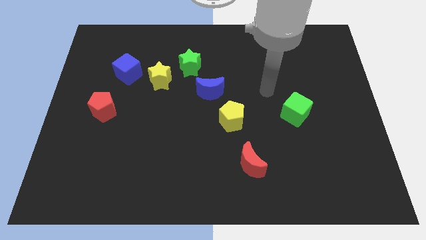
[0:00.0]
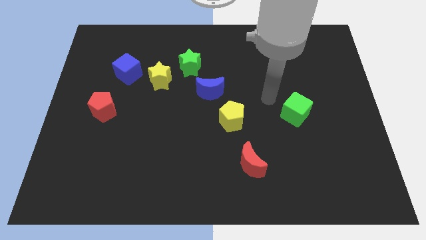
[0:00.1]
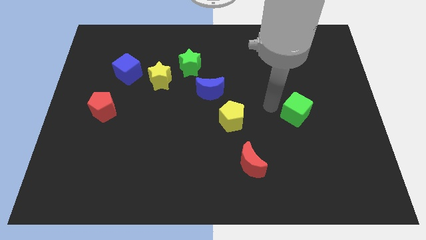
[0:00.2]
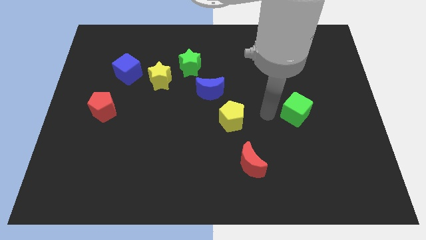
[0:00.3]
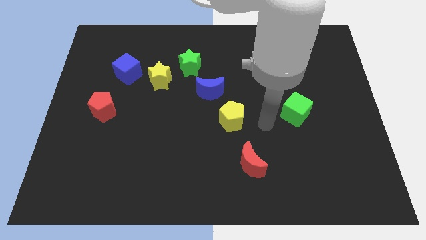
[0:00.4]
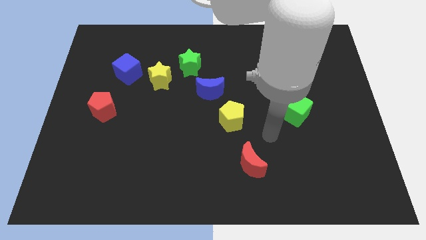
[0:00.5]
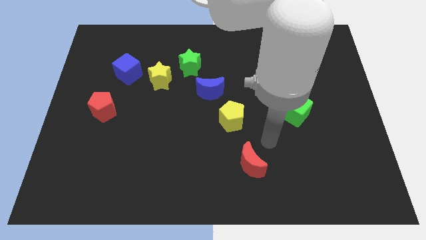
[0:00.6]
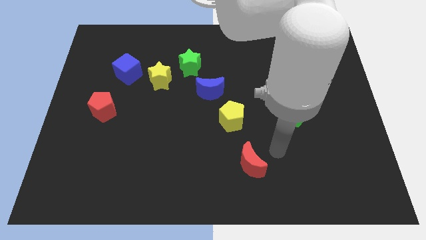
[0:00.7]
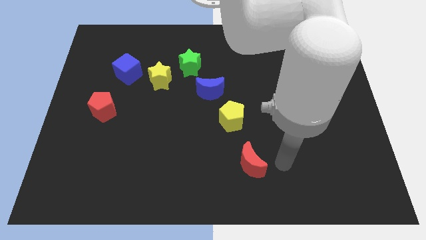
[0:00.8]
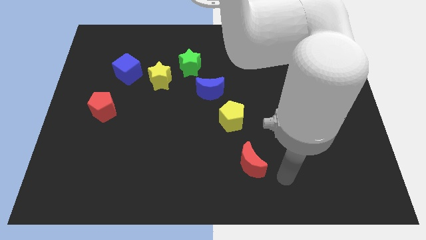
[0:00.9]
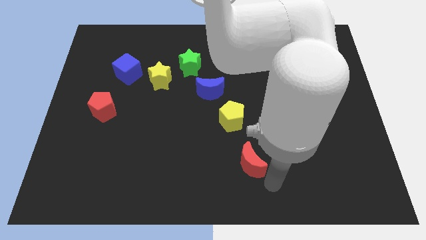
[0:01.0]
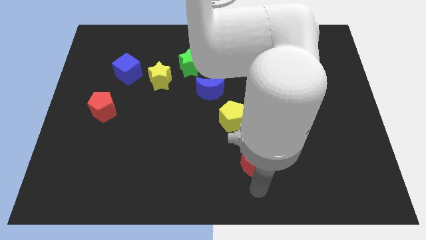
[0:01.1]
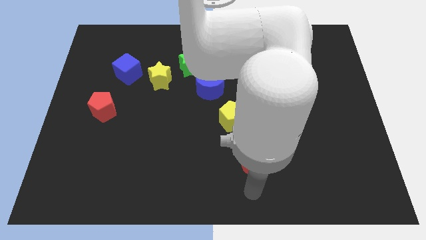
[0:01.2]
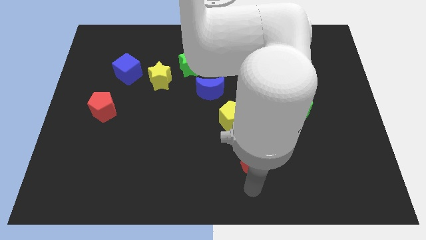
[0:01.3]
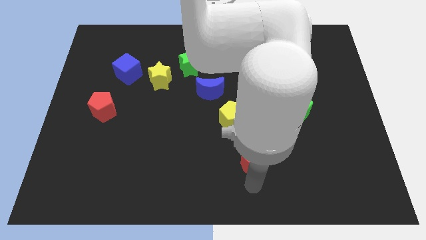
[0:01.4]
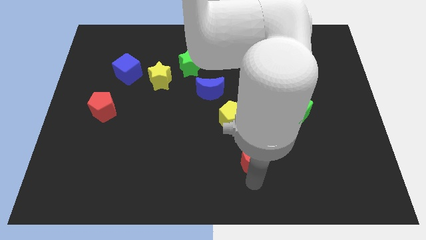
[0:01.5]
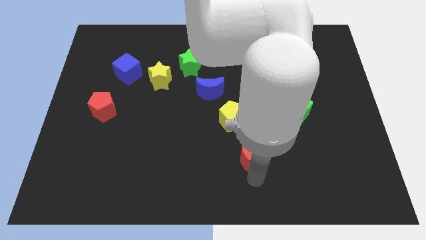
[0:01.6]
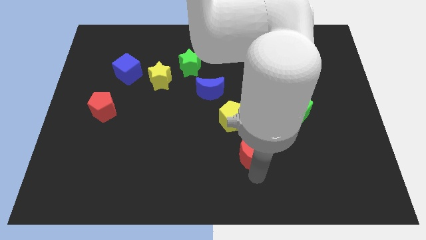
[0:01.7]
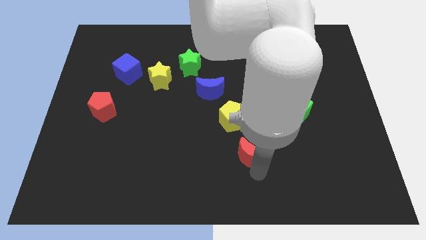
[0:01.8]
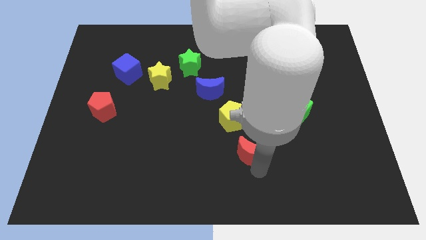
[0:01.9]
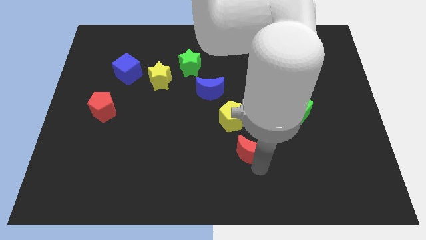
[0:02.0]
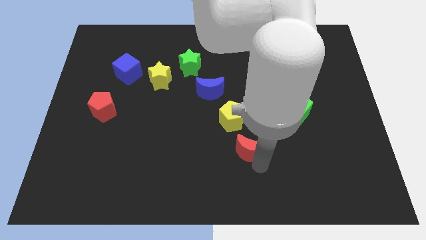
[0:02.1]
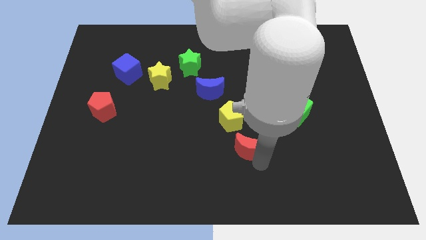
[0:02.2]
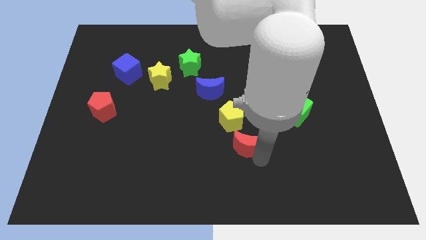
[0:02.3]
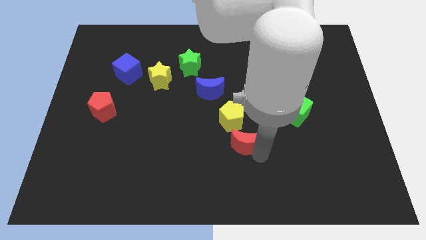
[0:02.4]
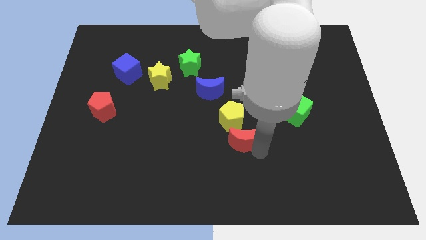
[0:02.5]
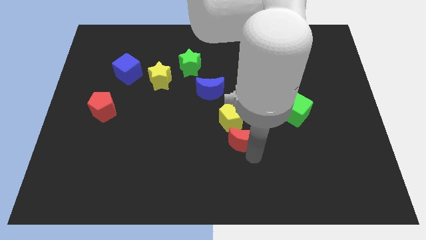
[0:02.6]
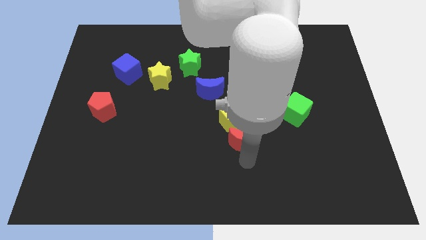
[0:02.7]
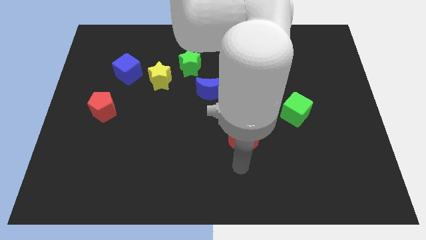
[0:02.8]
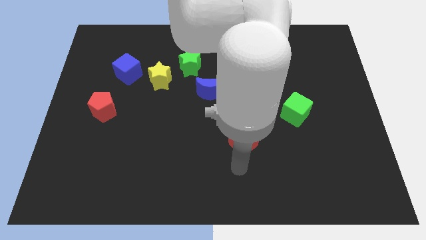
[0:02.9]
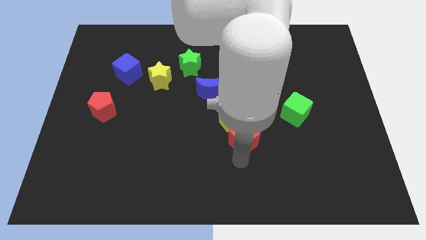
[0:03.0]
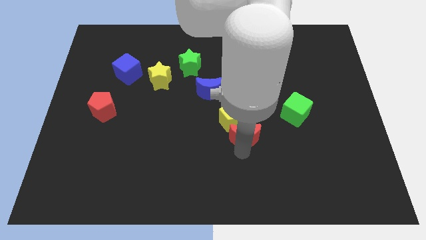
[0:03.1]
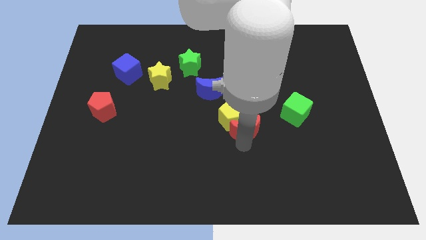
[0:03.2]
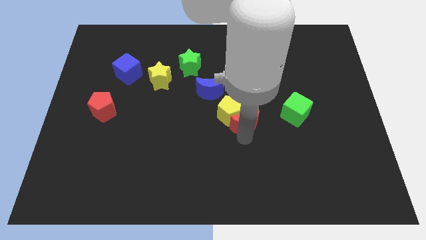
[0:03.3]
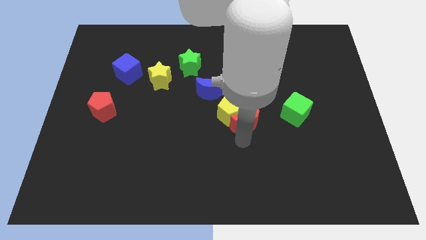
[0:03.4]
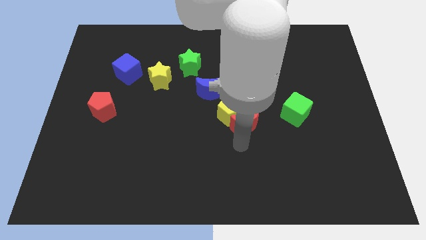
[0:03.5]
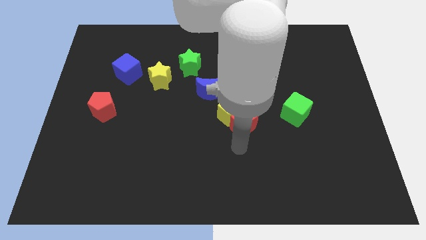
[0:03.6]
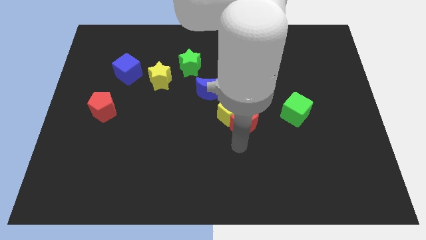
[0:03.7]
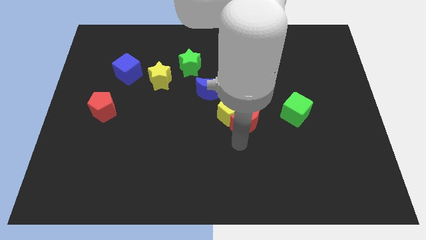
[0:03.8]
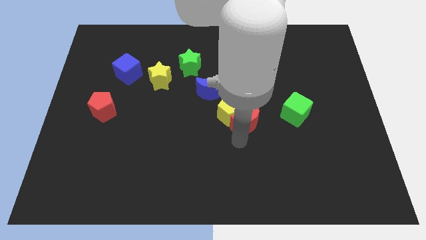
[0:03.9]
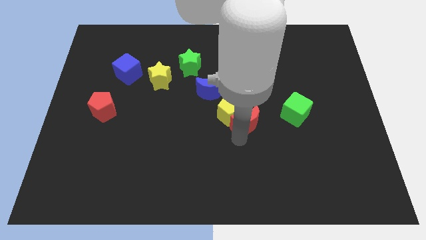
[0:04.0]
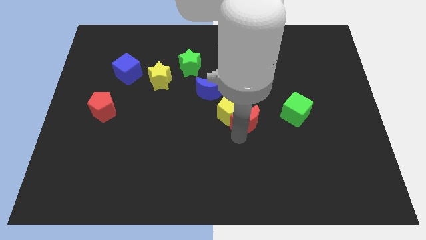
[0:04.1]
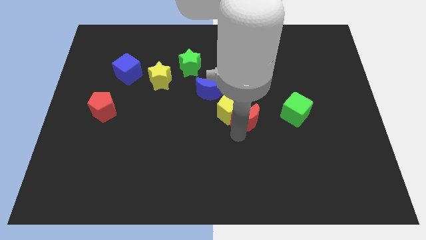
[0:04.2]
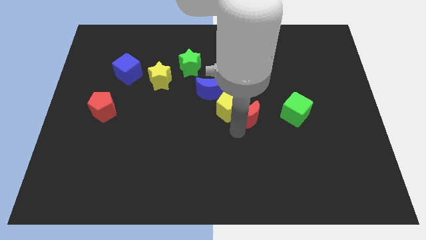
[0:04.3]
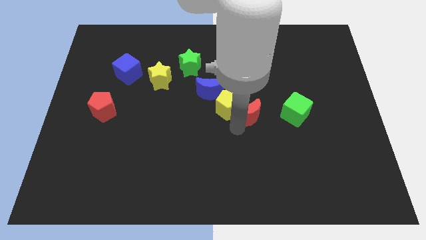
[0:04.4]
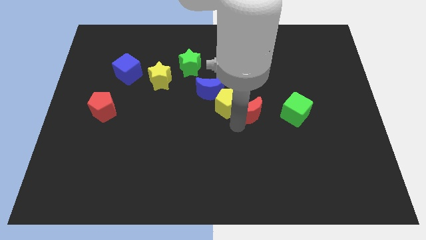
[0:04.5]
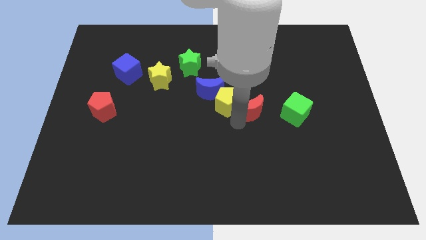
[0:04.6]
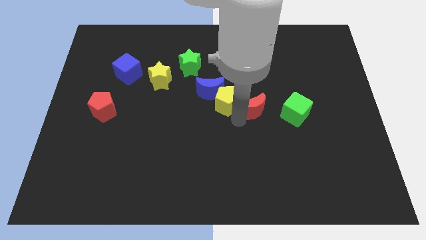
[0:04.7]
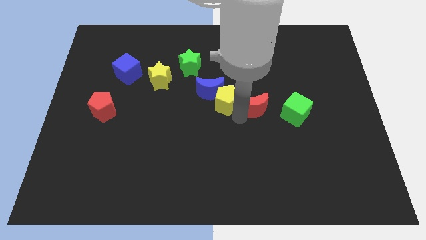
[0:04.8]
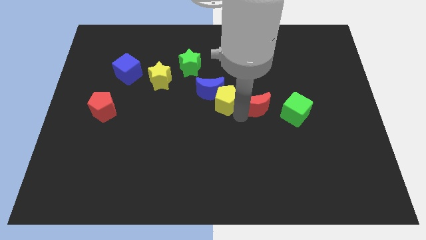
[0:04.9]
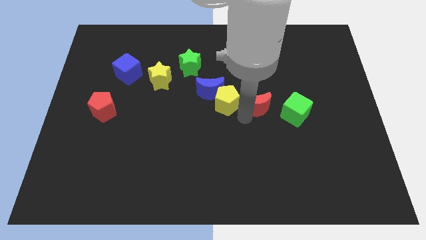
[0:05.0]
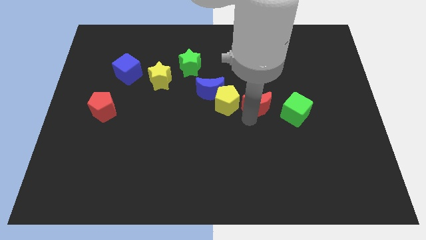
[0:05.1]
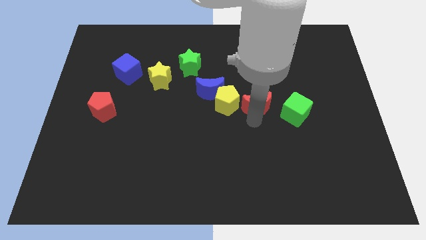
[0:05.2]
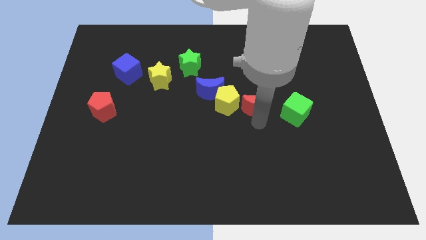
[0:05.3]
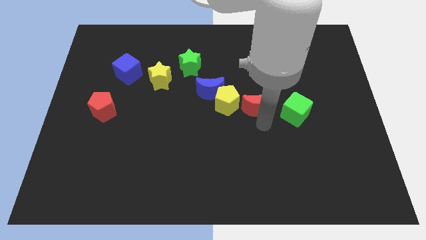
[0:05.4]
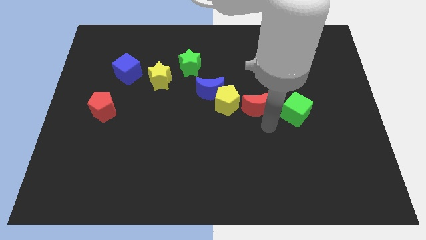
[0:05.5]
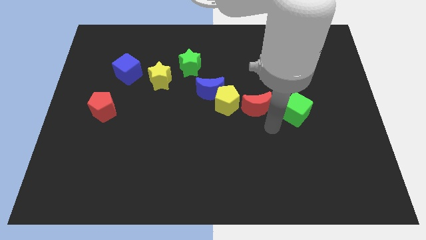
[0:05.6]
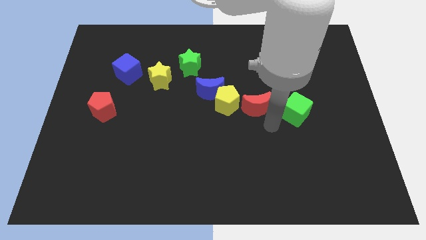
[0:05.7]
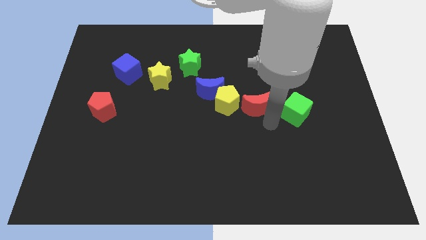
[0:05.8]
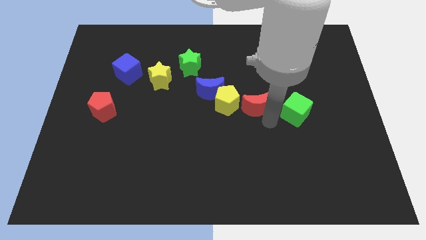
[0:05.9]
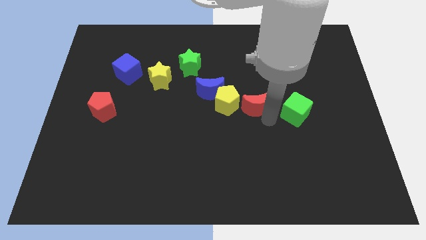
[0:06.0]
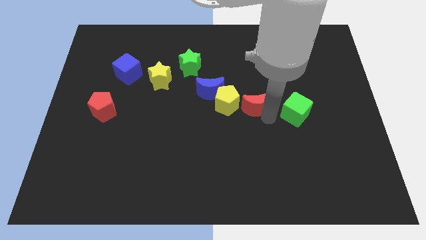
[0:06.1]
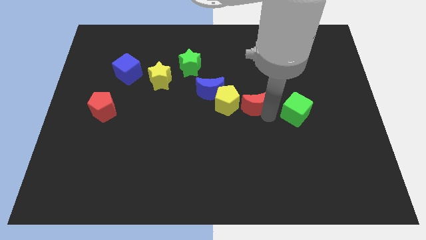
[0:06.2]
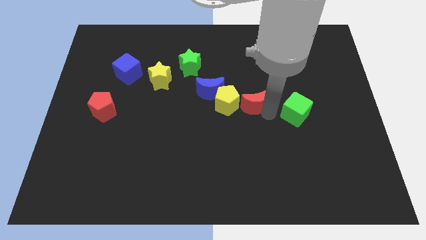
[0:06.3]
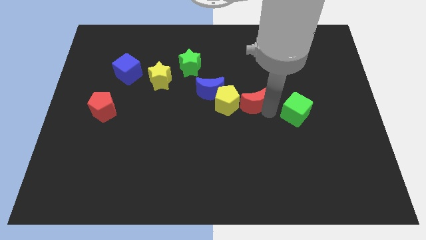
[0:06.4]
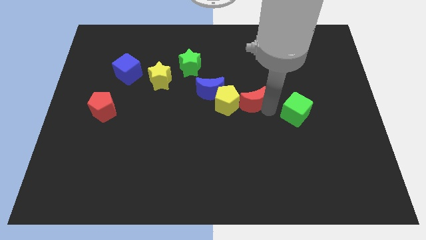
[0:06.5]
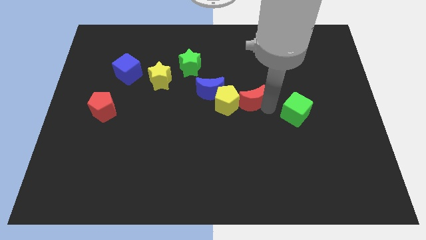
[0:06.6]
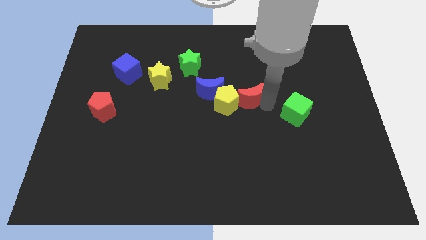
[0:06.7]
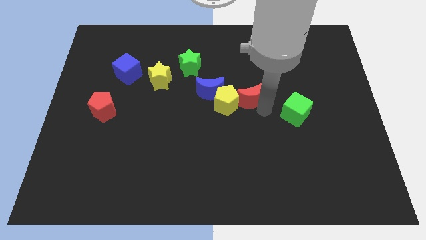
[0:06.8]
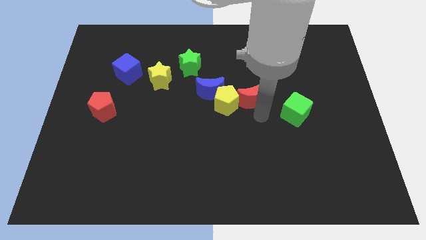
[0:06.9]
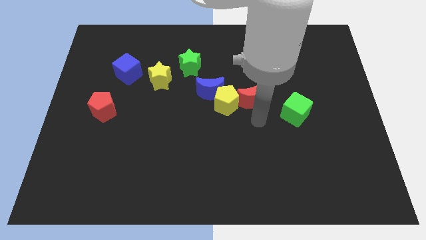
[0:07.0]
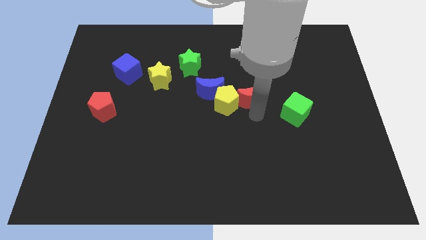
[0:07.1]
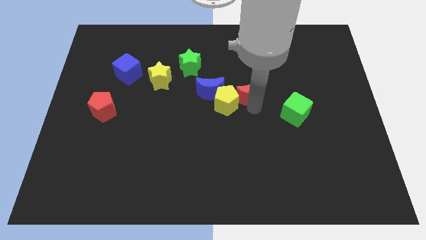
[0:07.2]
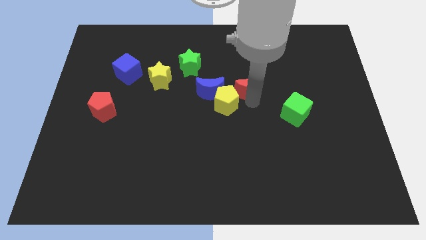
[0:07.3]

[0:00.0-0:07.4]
slide the red moon up

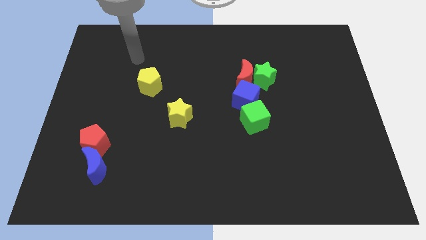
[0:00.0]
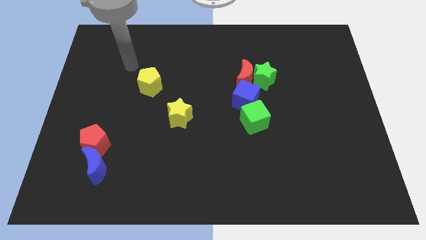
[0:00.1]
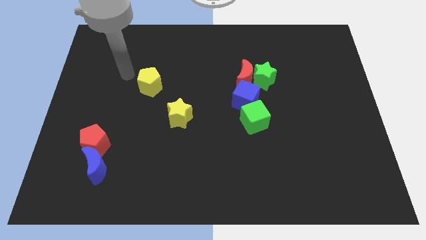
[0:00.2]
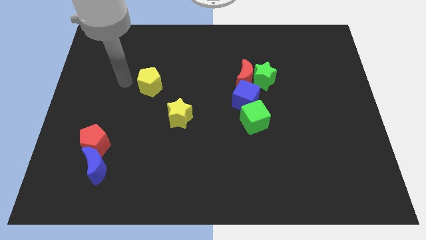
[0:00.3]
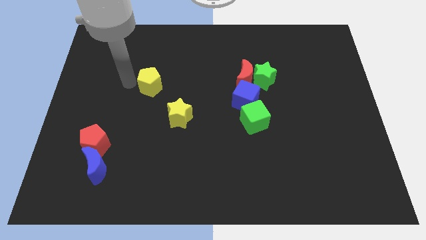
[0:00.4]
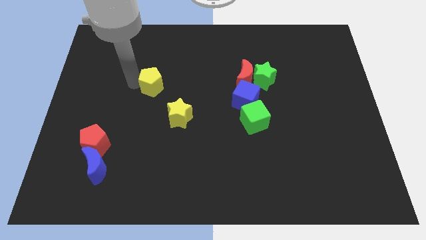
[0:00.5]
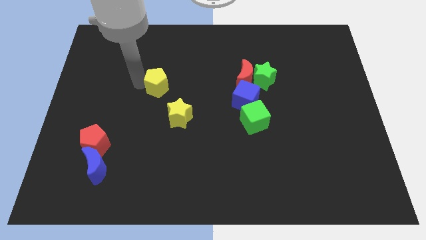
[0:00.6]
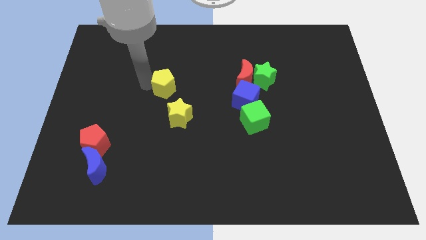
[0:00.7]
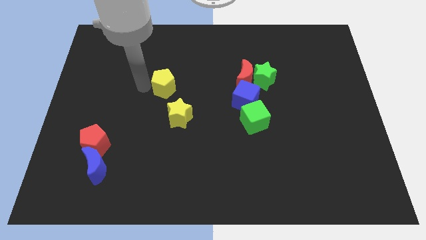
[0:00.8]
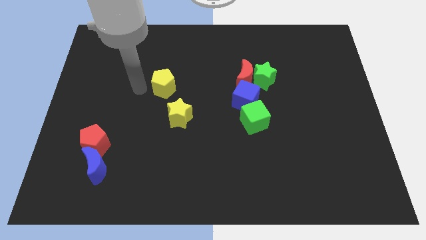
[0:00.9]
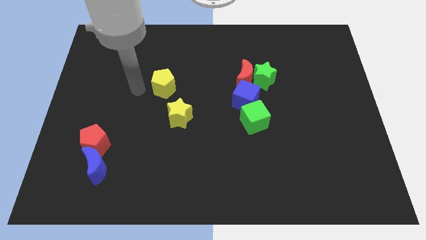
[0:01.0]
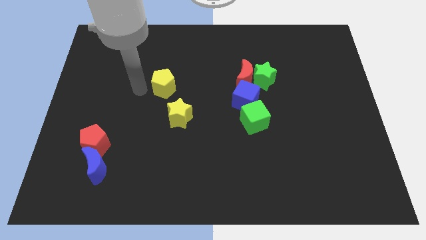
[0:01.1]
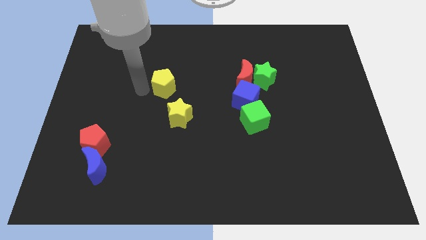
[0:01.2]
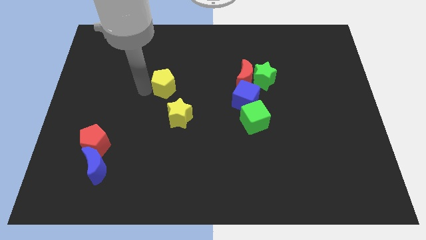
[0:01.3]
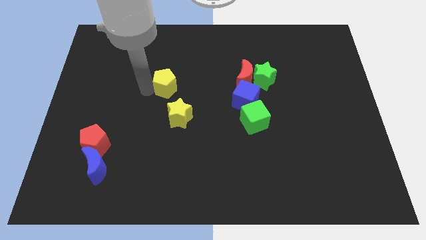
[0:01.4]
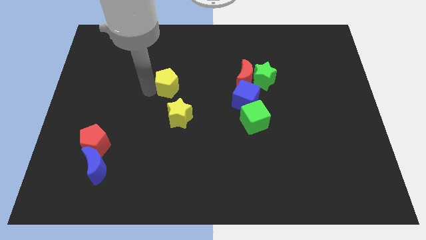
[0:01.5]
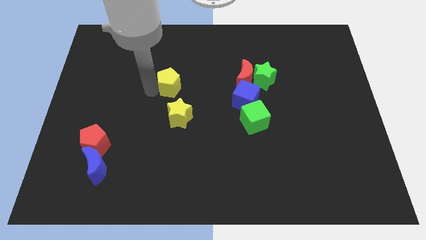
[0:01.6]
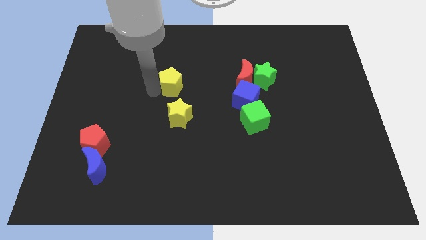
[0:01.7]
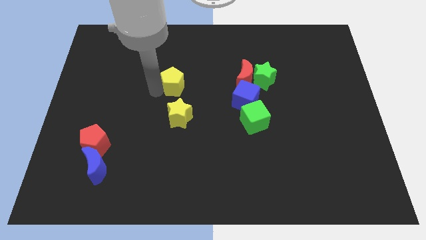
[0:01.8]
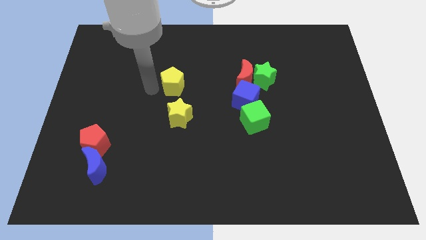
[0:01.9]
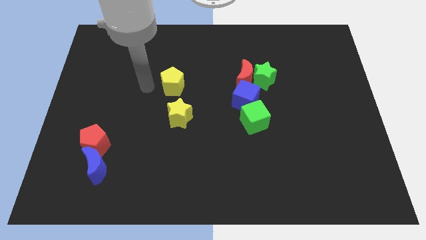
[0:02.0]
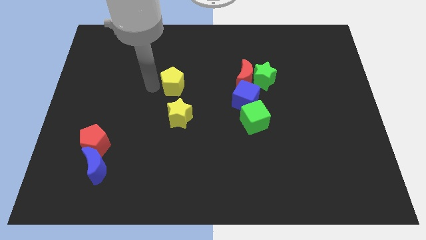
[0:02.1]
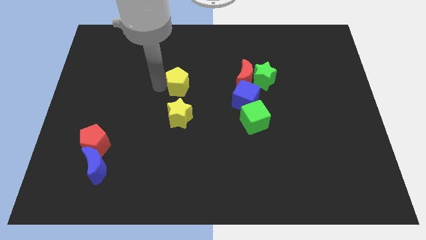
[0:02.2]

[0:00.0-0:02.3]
push the yellow pentagon slightly to the right
